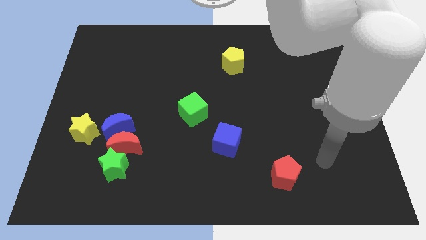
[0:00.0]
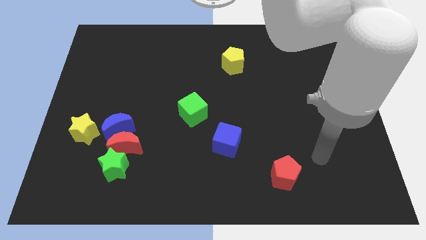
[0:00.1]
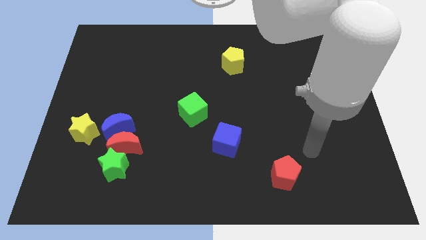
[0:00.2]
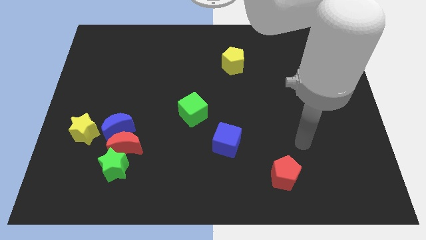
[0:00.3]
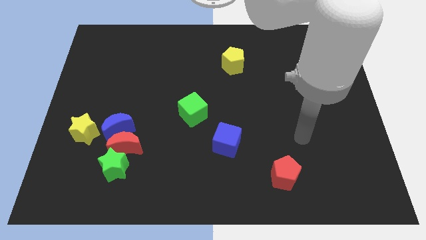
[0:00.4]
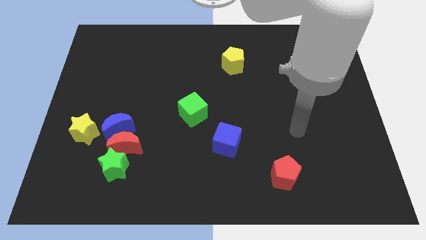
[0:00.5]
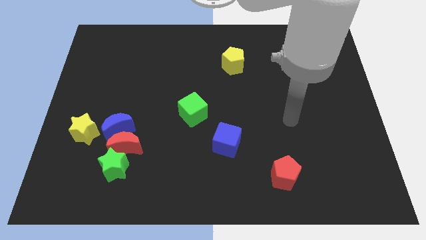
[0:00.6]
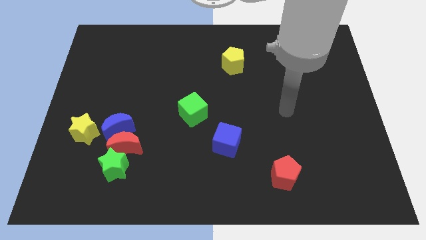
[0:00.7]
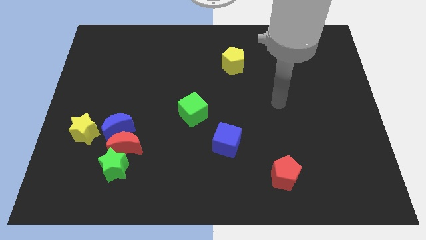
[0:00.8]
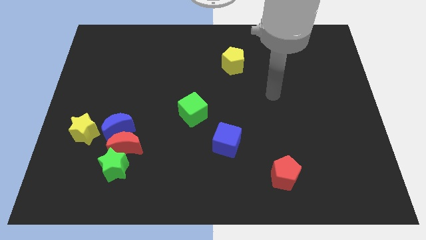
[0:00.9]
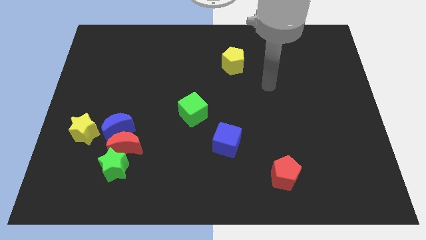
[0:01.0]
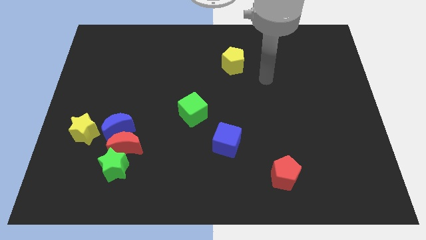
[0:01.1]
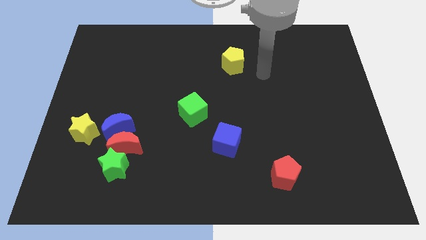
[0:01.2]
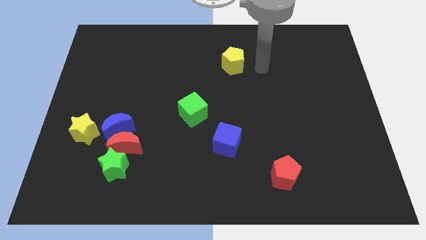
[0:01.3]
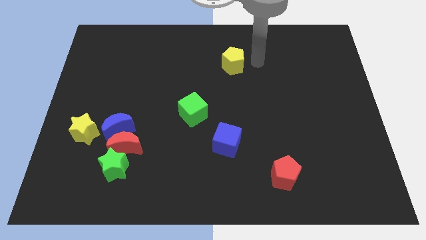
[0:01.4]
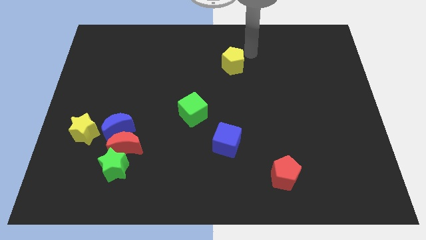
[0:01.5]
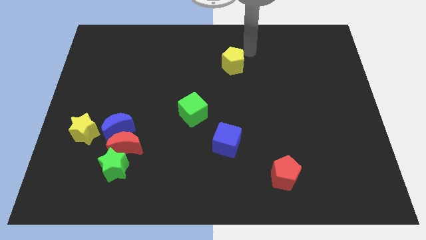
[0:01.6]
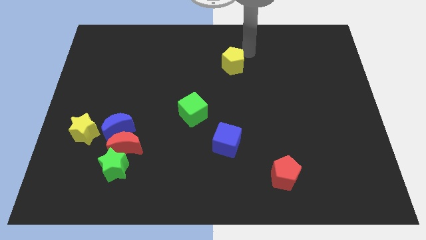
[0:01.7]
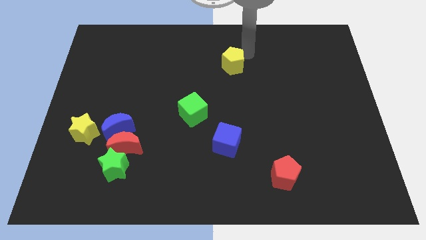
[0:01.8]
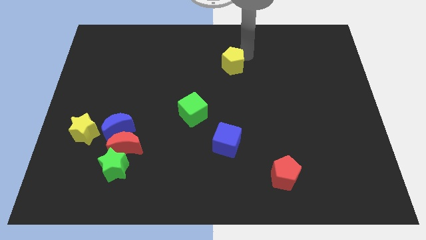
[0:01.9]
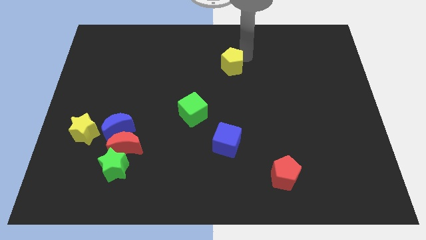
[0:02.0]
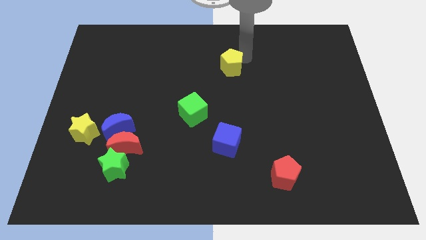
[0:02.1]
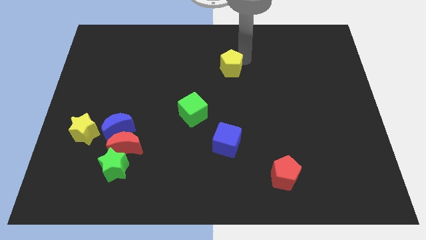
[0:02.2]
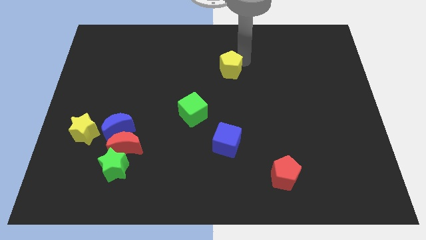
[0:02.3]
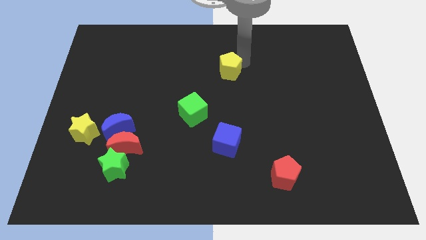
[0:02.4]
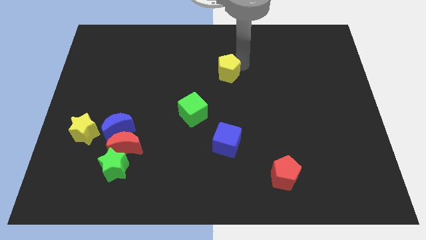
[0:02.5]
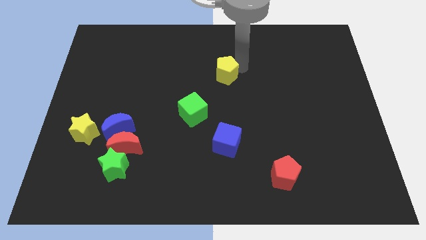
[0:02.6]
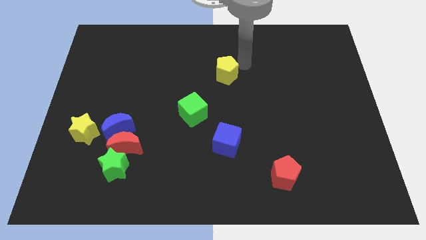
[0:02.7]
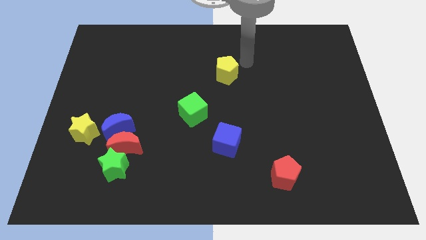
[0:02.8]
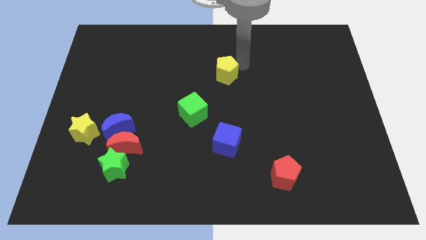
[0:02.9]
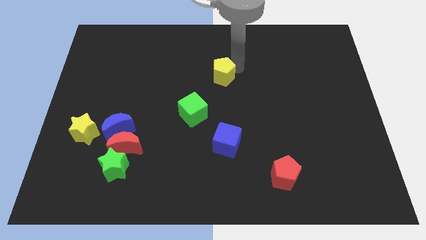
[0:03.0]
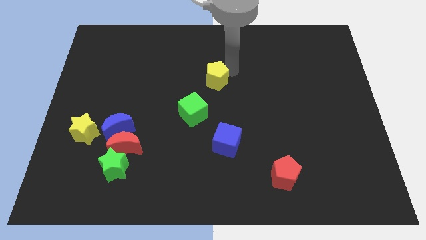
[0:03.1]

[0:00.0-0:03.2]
slightly push the yellow pentagon down and left diagonally

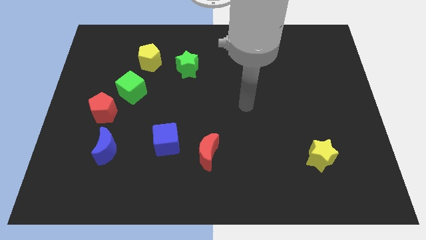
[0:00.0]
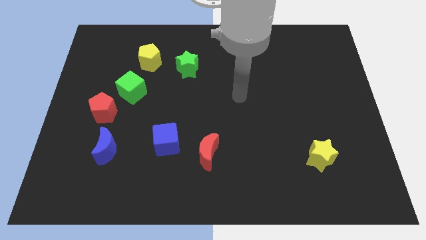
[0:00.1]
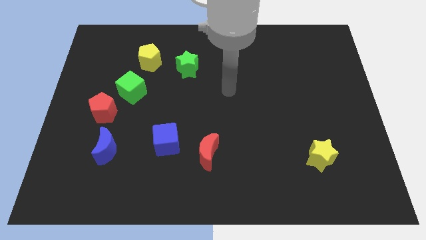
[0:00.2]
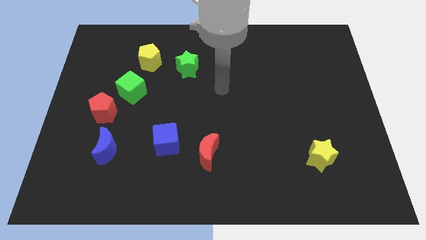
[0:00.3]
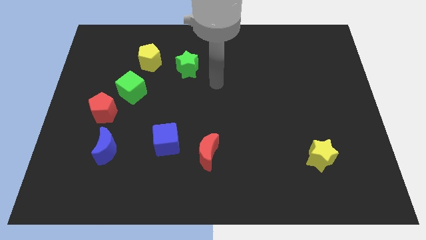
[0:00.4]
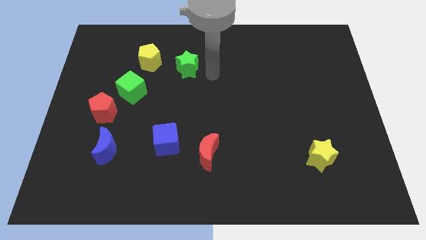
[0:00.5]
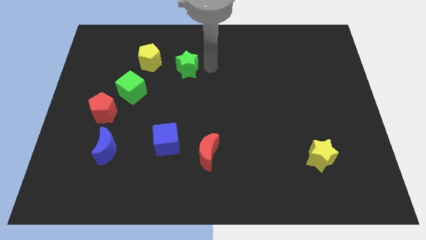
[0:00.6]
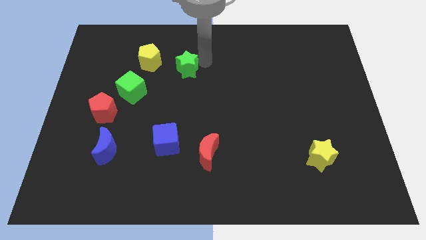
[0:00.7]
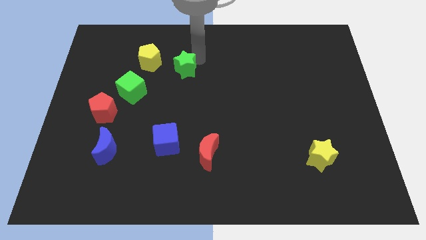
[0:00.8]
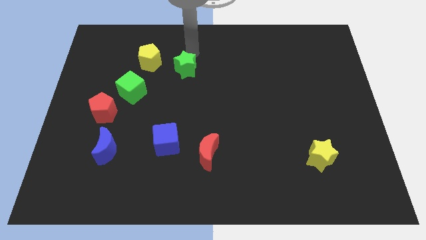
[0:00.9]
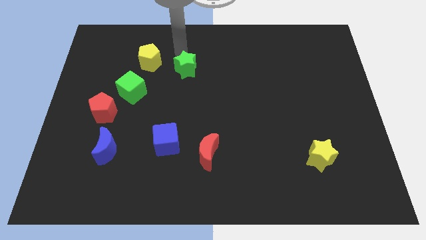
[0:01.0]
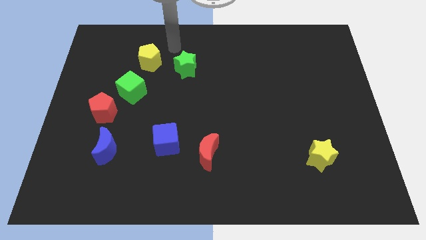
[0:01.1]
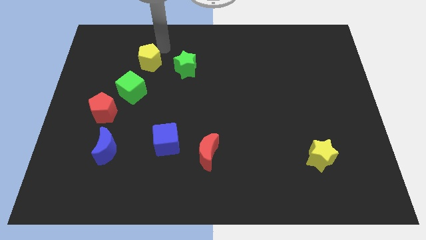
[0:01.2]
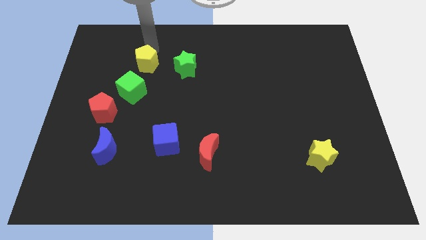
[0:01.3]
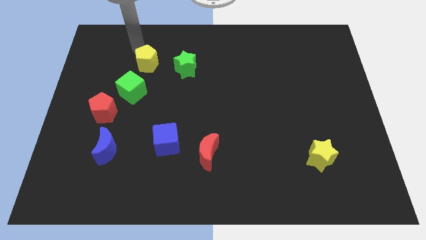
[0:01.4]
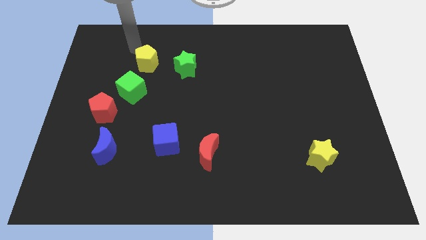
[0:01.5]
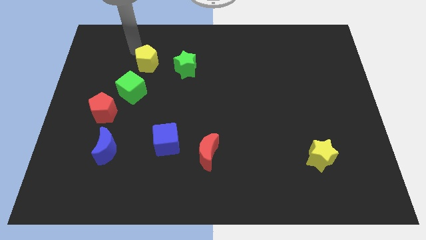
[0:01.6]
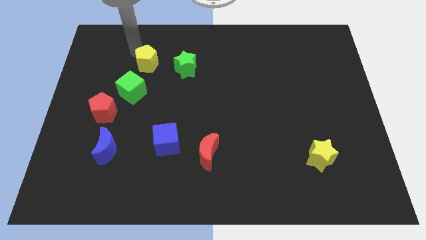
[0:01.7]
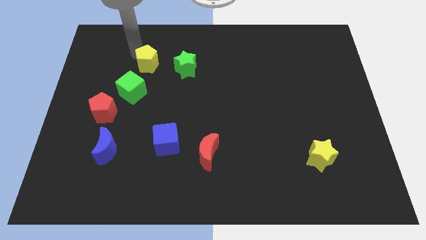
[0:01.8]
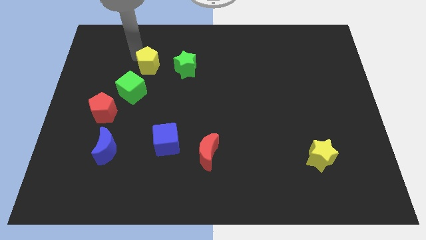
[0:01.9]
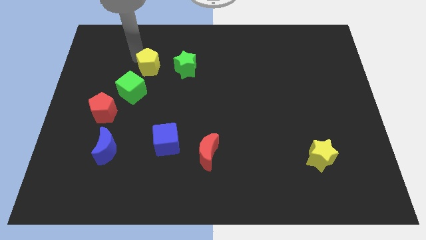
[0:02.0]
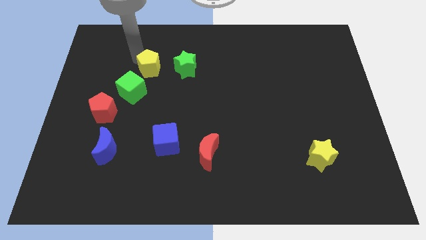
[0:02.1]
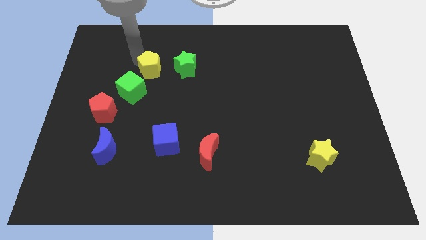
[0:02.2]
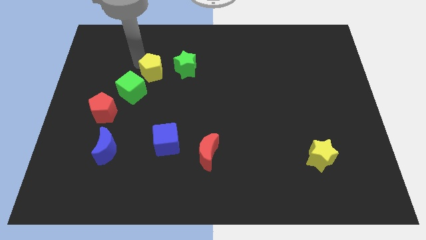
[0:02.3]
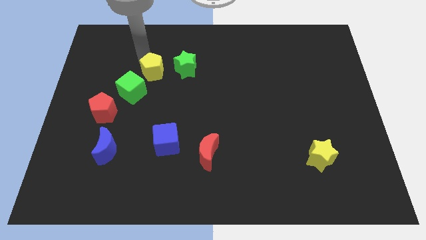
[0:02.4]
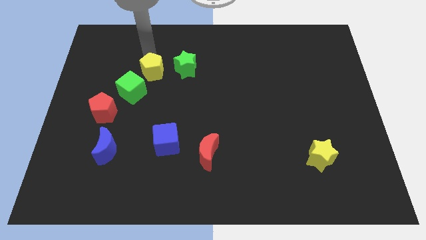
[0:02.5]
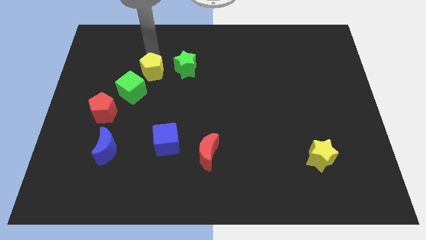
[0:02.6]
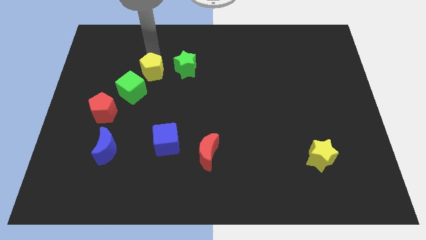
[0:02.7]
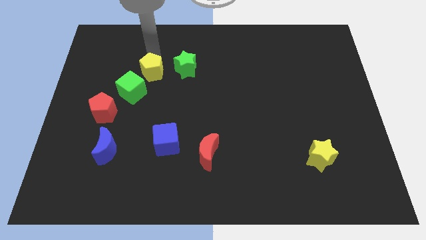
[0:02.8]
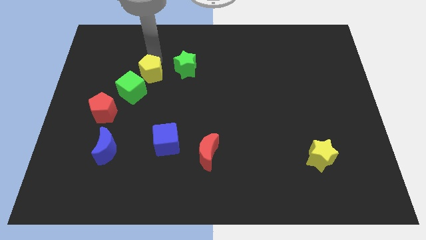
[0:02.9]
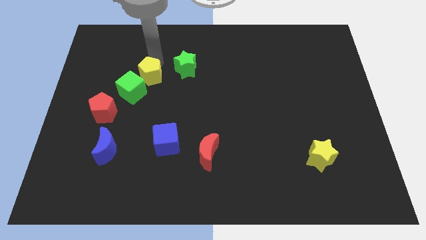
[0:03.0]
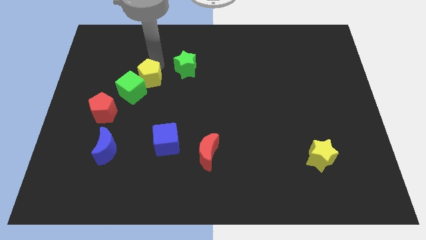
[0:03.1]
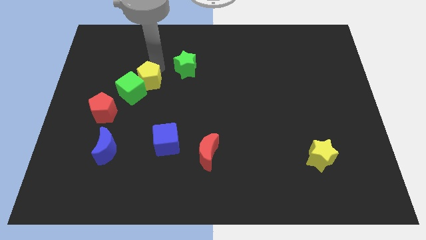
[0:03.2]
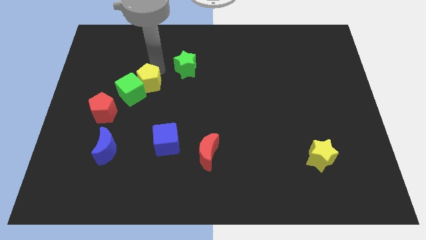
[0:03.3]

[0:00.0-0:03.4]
slightly slide the yellow pentagon down

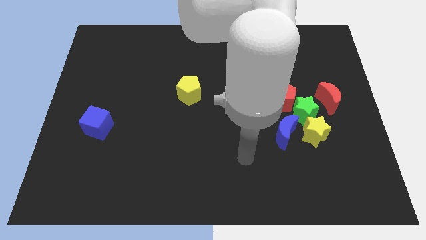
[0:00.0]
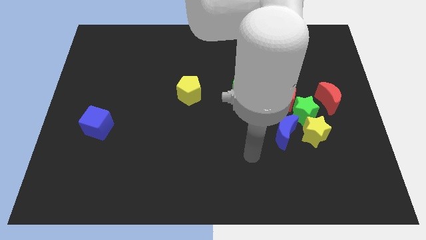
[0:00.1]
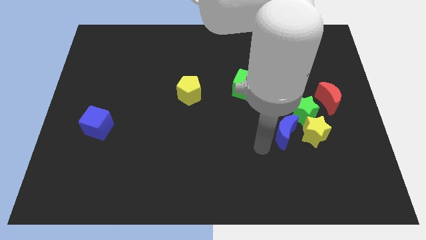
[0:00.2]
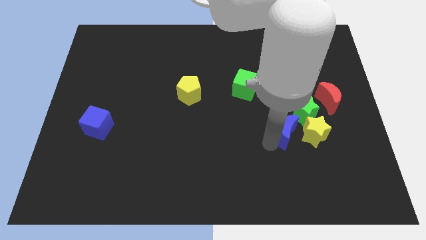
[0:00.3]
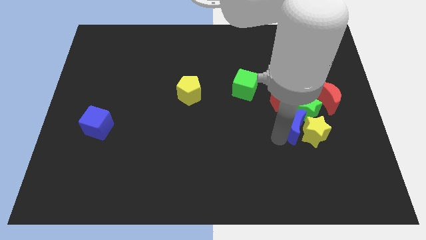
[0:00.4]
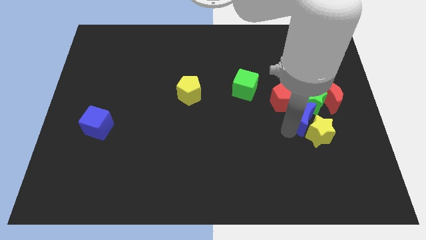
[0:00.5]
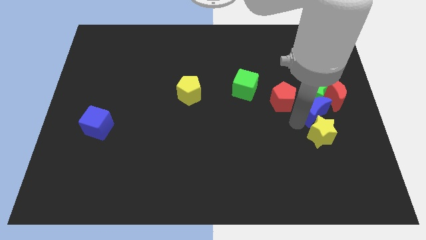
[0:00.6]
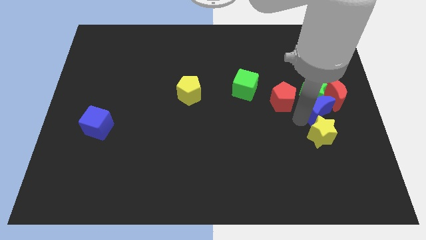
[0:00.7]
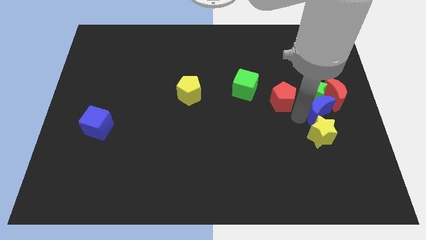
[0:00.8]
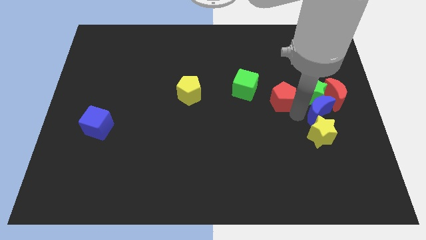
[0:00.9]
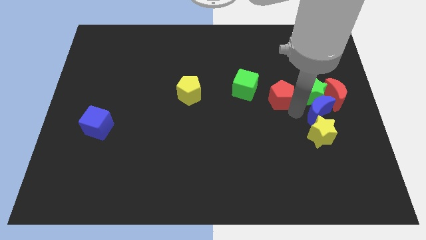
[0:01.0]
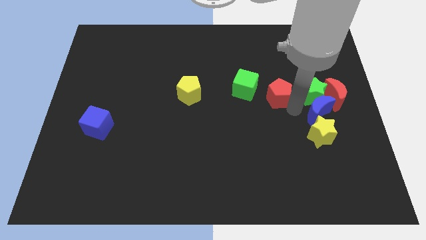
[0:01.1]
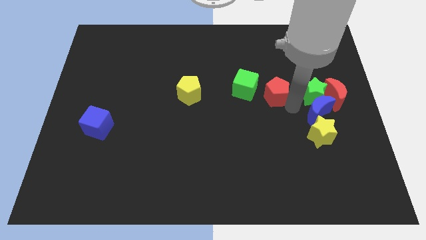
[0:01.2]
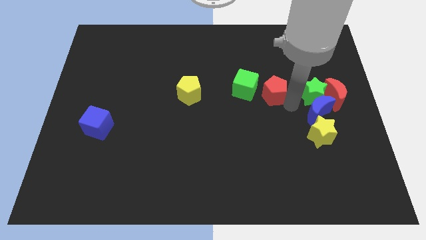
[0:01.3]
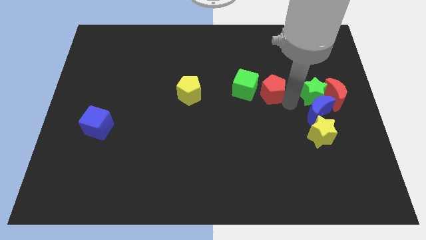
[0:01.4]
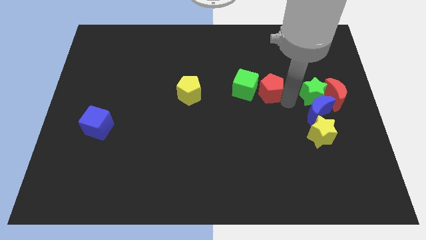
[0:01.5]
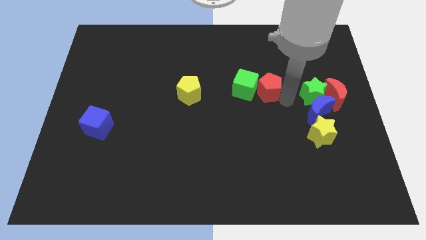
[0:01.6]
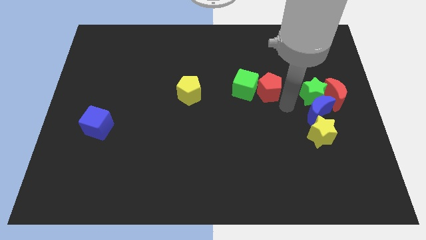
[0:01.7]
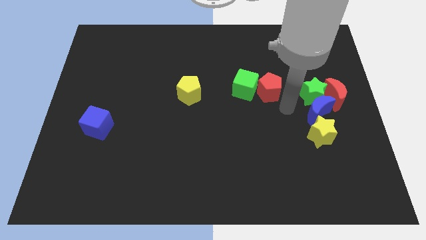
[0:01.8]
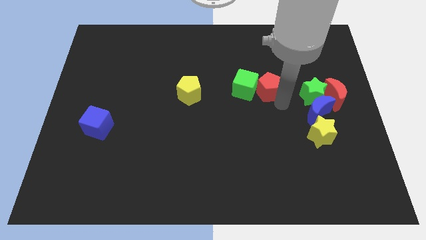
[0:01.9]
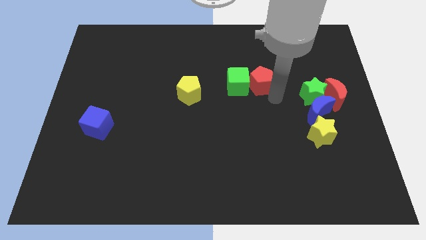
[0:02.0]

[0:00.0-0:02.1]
slightly move the red pentagon up and to the left
